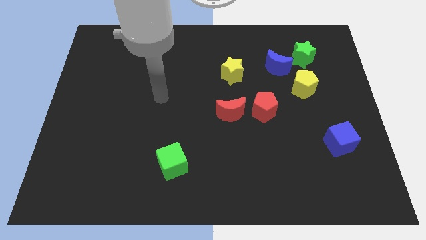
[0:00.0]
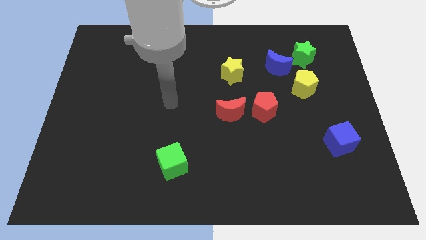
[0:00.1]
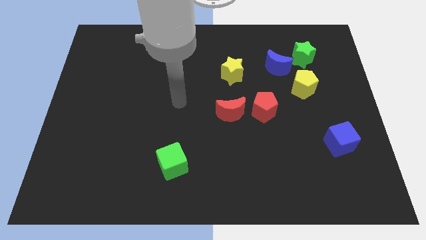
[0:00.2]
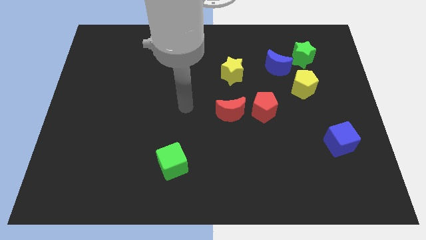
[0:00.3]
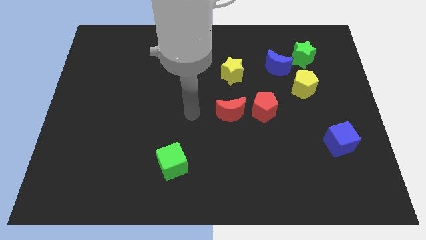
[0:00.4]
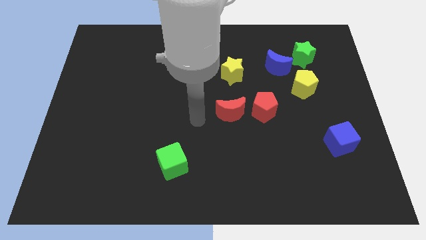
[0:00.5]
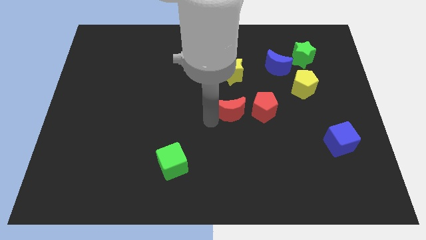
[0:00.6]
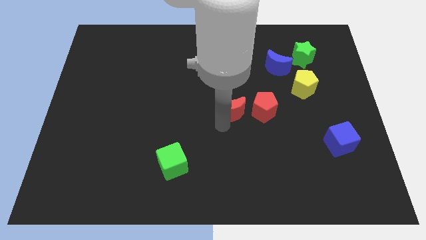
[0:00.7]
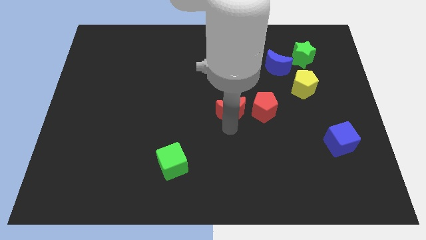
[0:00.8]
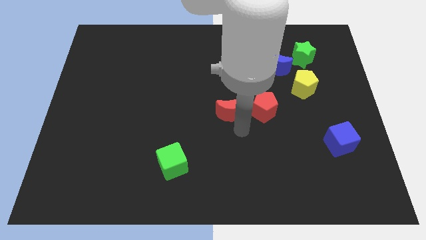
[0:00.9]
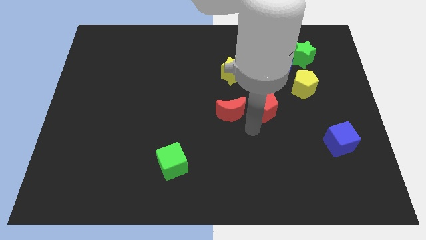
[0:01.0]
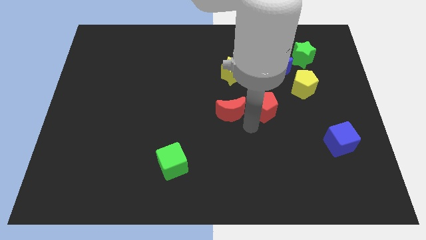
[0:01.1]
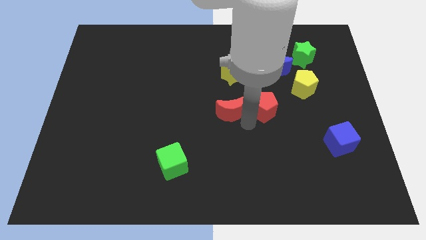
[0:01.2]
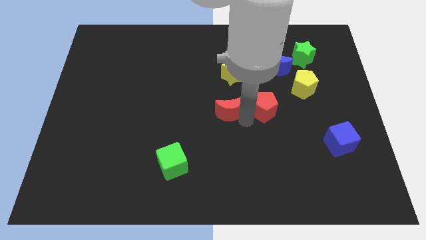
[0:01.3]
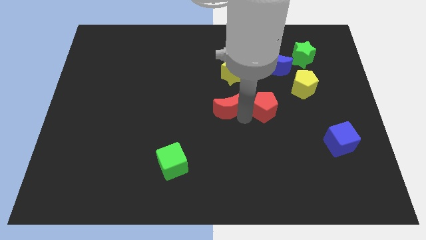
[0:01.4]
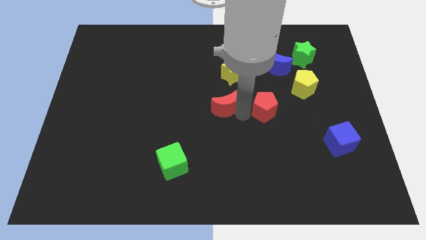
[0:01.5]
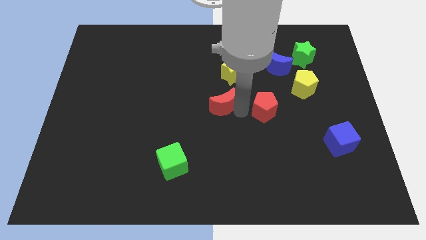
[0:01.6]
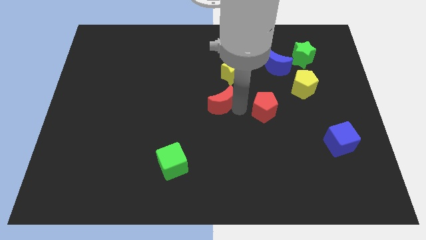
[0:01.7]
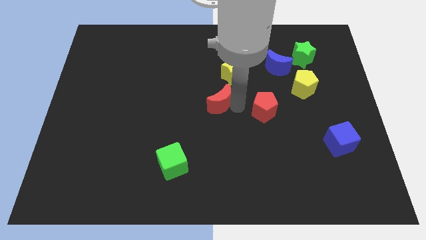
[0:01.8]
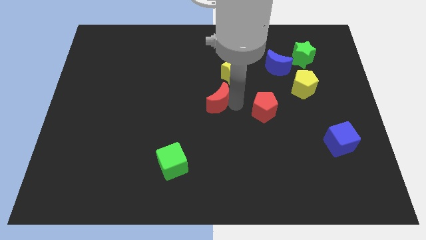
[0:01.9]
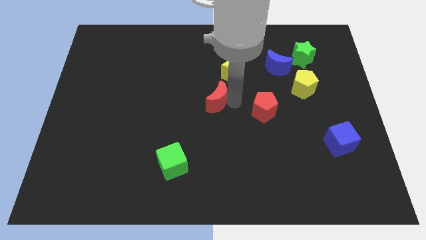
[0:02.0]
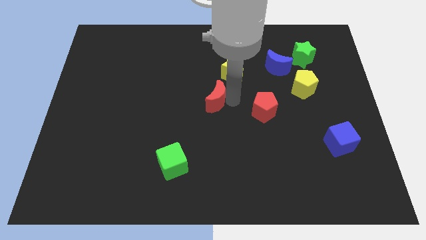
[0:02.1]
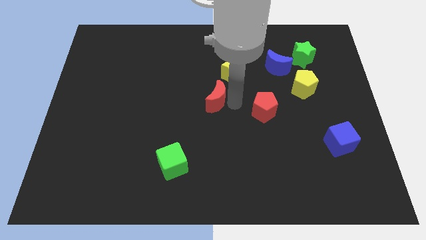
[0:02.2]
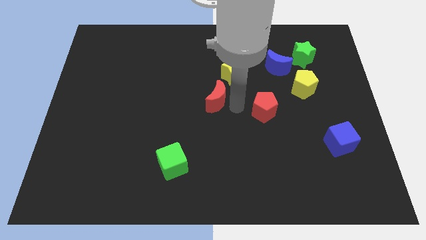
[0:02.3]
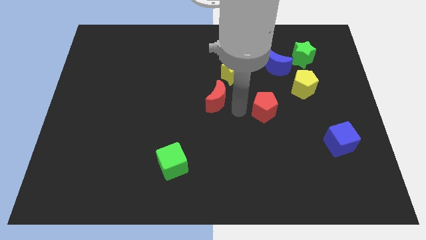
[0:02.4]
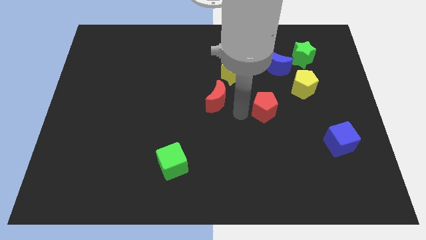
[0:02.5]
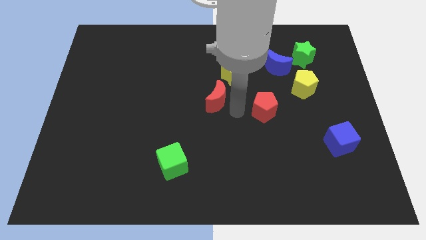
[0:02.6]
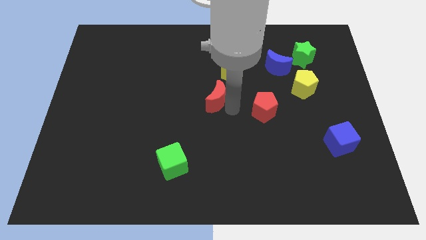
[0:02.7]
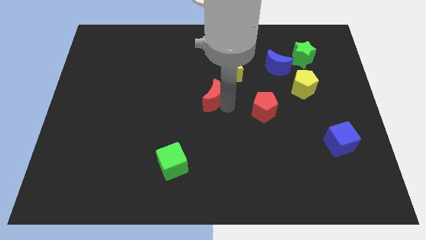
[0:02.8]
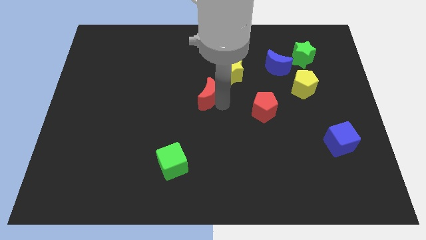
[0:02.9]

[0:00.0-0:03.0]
slightly move the red moon diagonally upwards and left

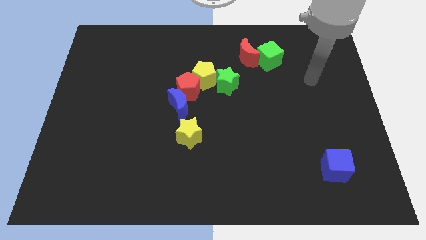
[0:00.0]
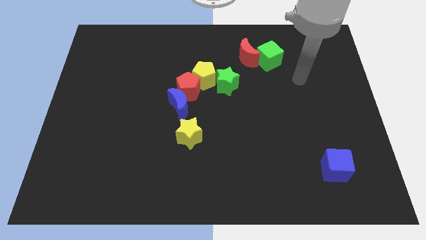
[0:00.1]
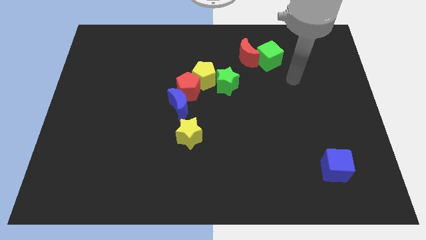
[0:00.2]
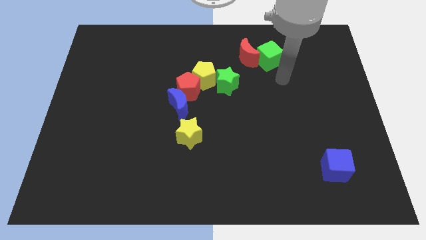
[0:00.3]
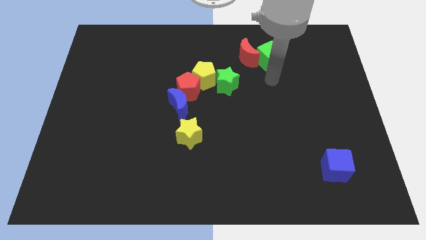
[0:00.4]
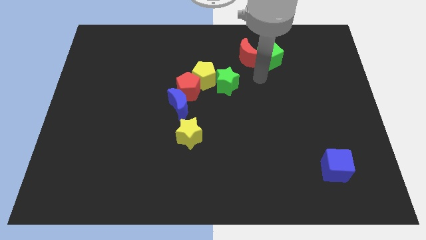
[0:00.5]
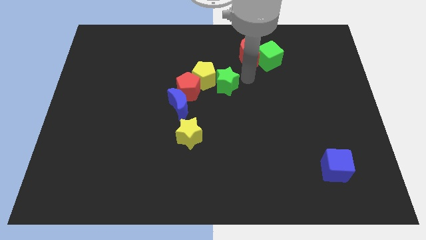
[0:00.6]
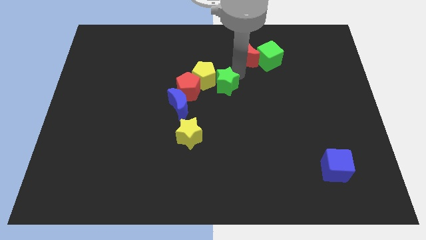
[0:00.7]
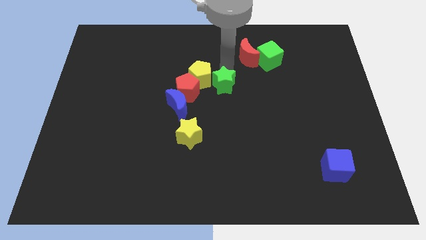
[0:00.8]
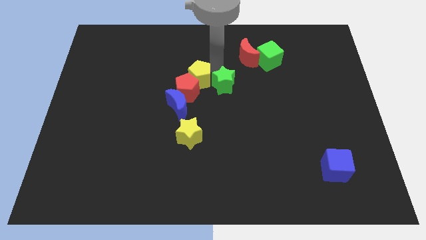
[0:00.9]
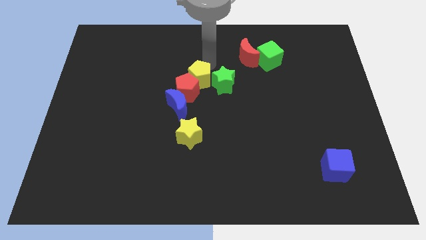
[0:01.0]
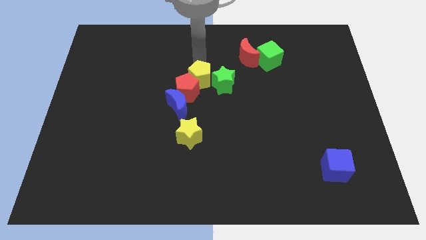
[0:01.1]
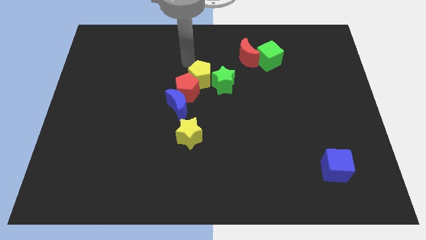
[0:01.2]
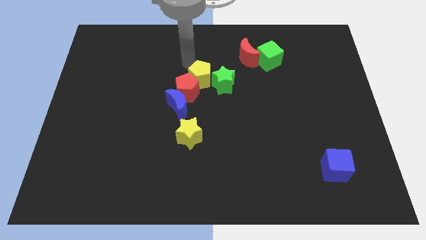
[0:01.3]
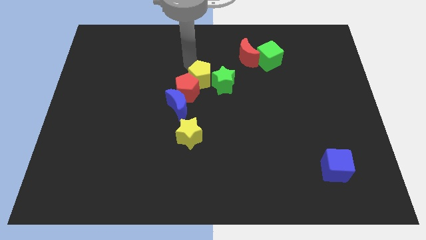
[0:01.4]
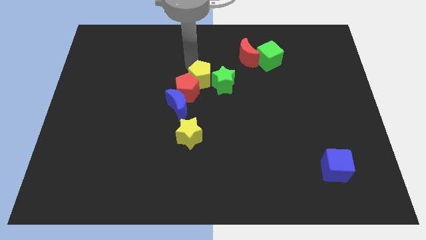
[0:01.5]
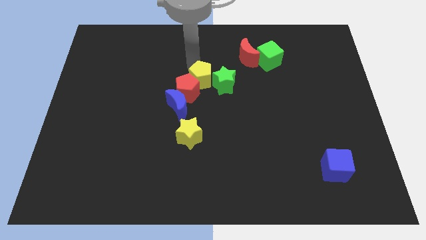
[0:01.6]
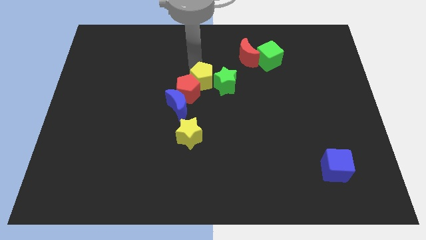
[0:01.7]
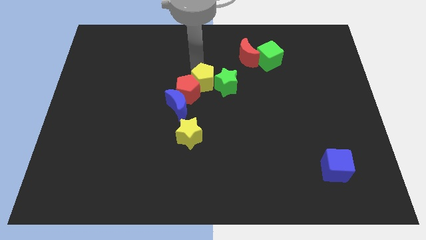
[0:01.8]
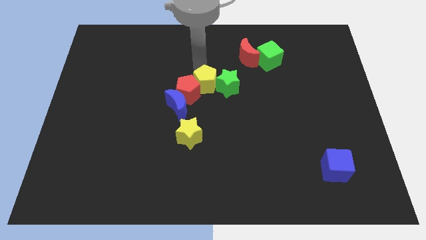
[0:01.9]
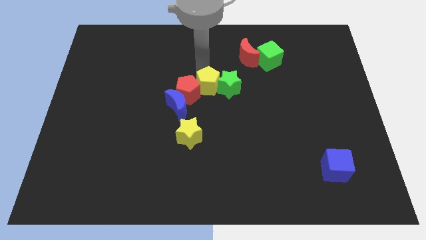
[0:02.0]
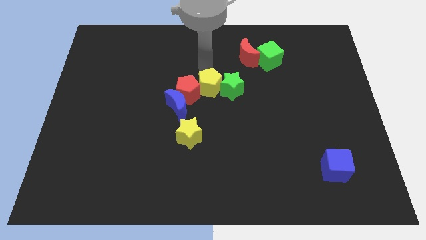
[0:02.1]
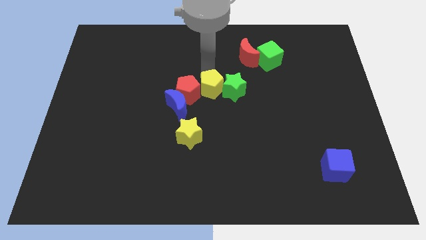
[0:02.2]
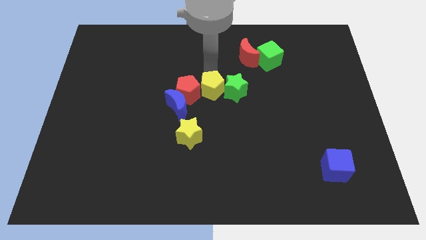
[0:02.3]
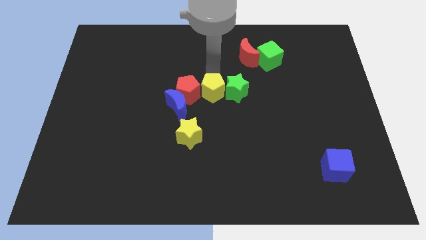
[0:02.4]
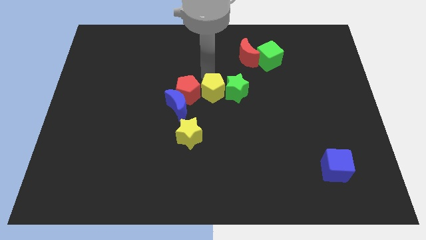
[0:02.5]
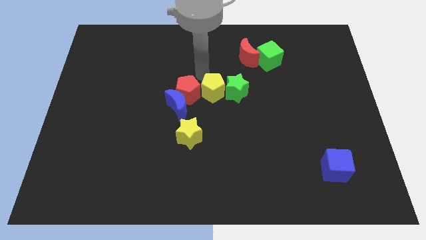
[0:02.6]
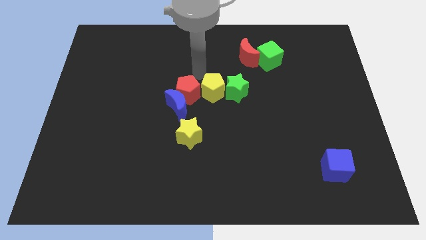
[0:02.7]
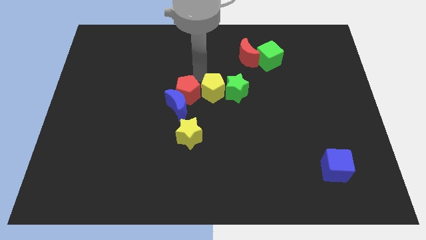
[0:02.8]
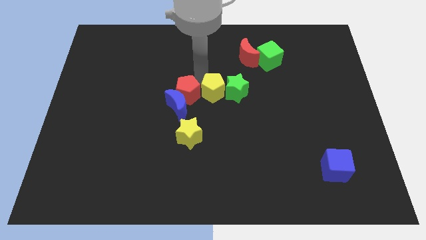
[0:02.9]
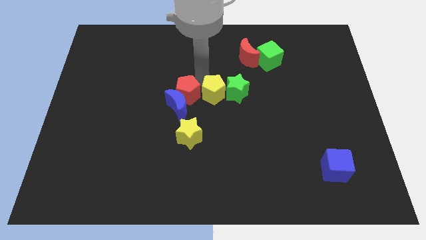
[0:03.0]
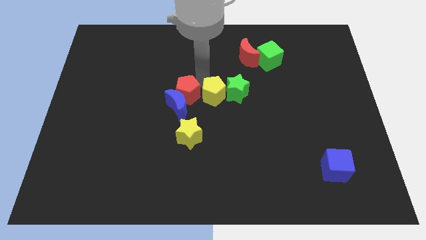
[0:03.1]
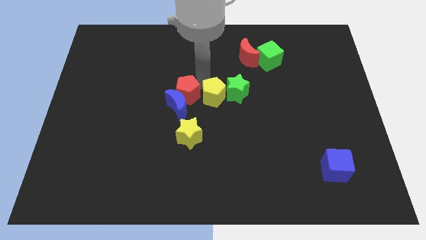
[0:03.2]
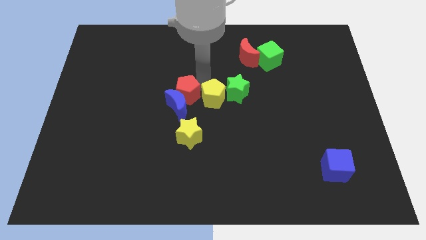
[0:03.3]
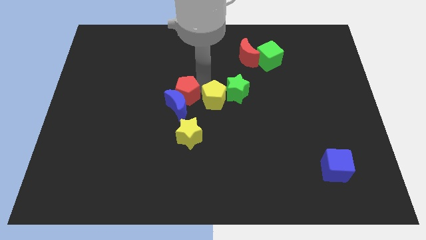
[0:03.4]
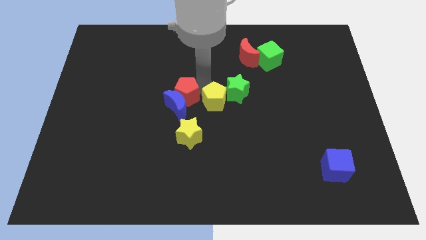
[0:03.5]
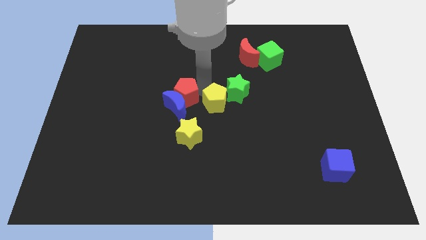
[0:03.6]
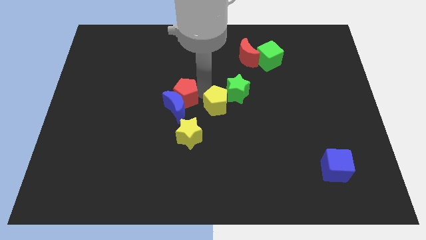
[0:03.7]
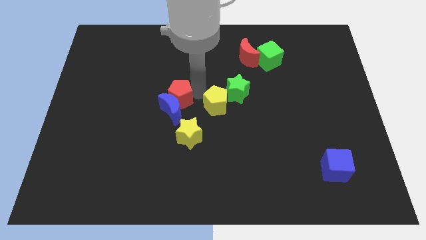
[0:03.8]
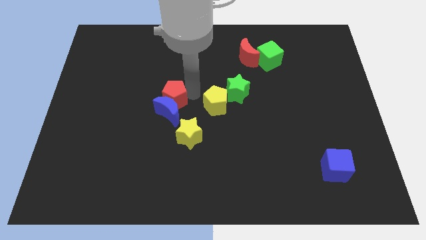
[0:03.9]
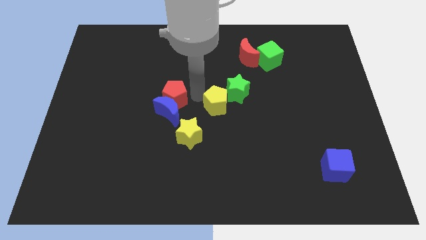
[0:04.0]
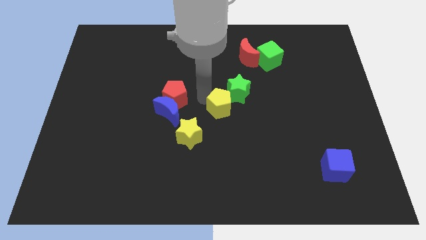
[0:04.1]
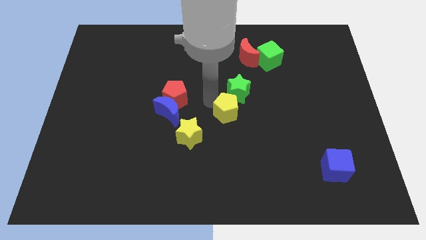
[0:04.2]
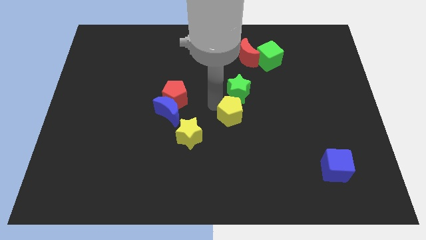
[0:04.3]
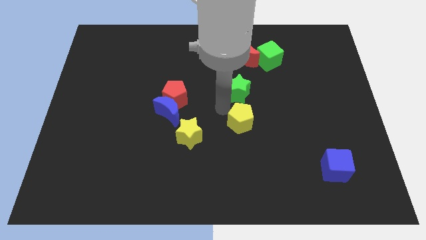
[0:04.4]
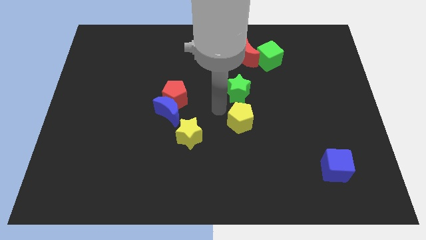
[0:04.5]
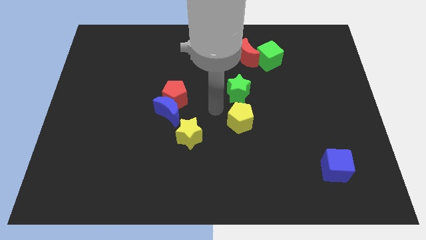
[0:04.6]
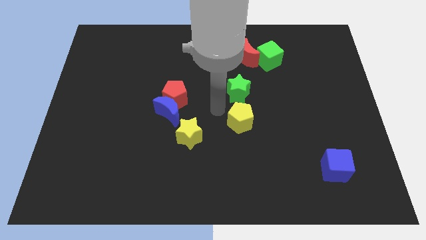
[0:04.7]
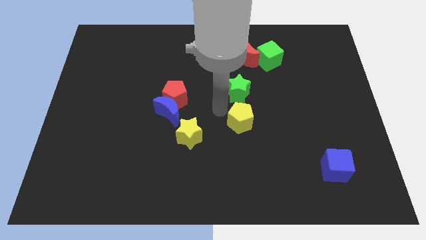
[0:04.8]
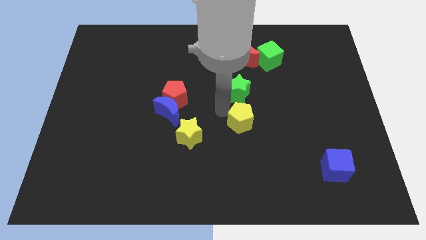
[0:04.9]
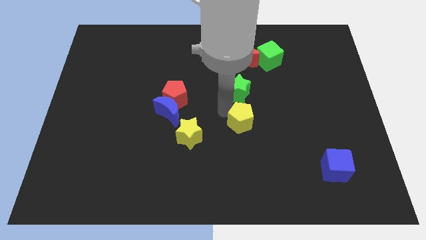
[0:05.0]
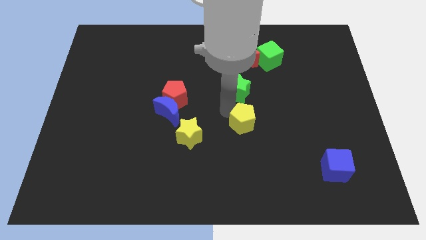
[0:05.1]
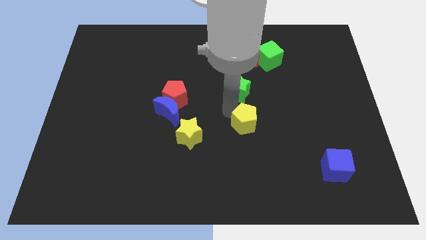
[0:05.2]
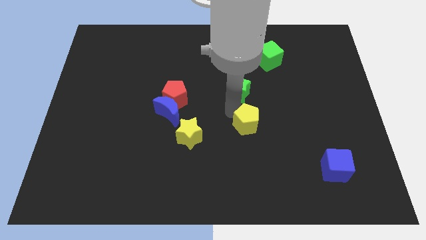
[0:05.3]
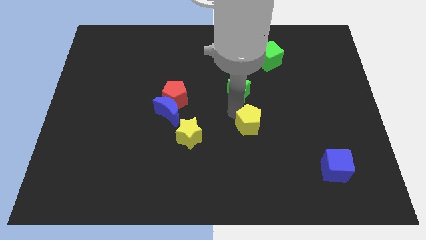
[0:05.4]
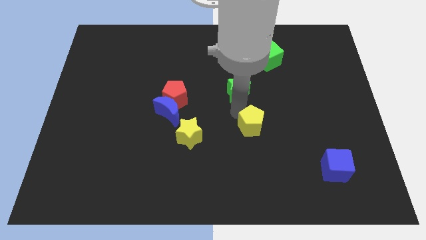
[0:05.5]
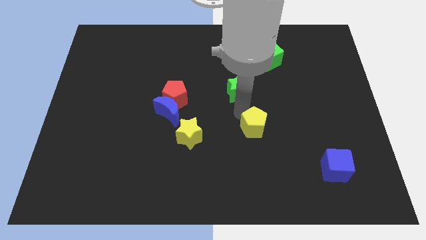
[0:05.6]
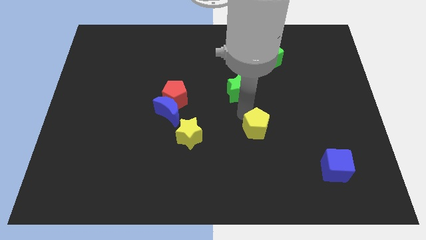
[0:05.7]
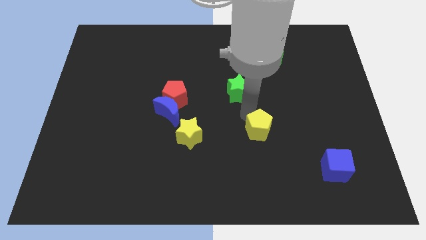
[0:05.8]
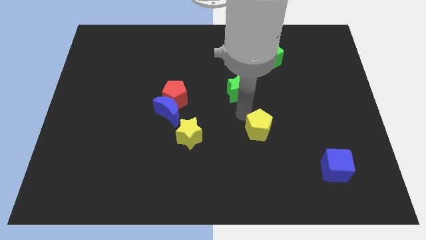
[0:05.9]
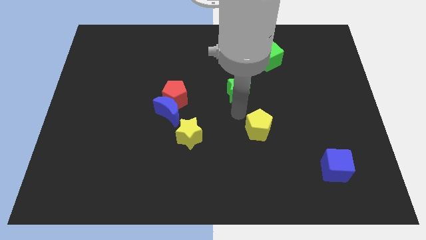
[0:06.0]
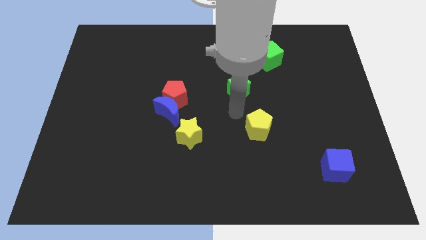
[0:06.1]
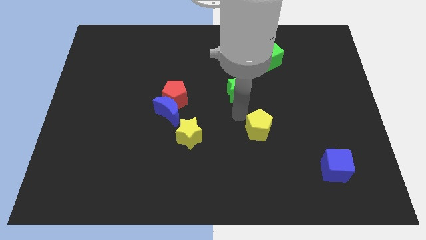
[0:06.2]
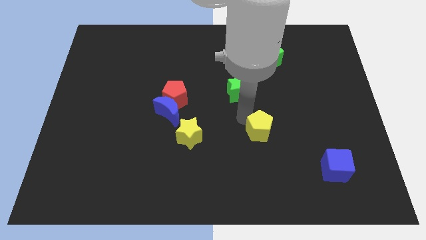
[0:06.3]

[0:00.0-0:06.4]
slide the yellow pentagon downwards and then to the right
